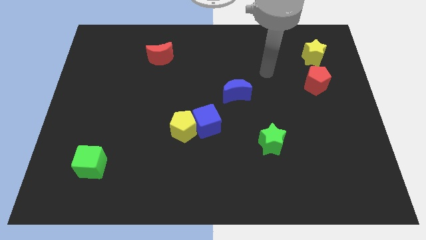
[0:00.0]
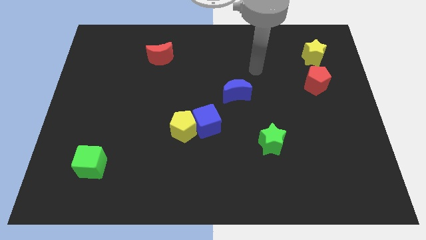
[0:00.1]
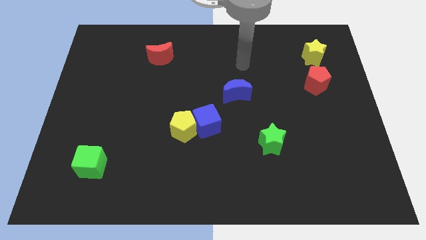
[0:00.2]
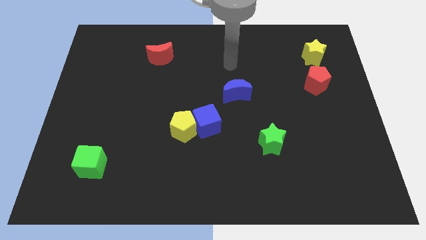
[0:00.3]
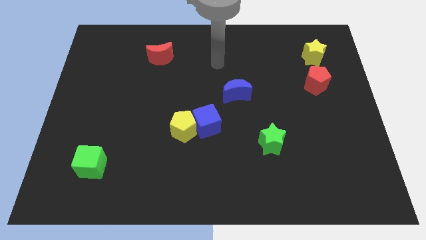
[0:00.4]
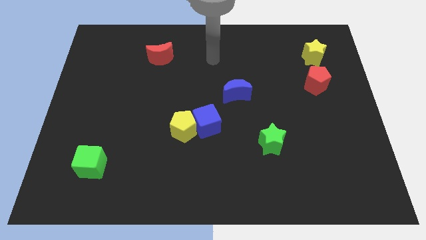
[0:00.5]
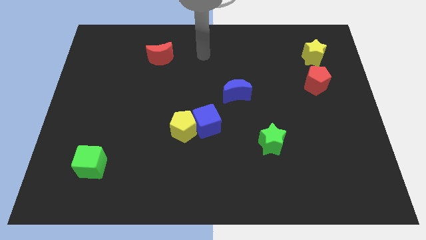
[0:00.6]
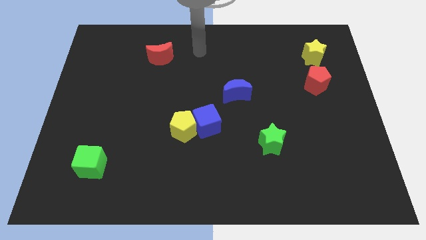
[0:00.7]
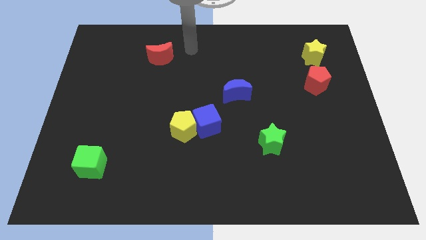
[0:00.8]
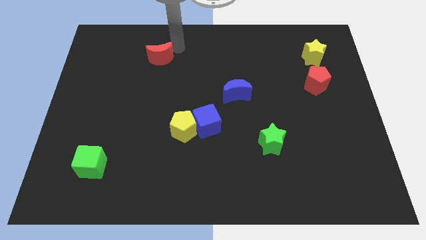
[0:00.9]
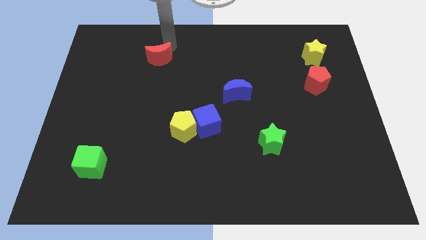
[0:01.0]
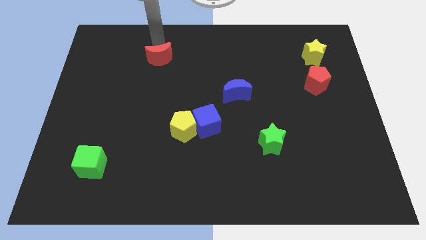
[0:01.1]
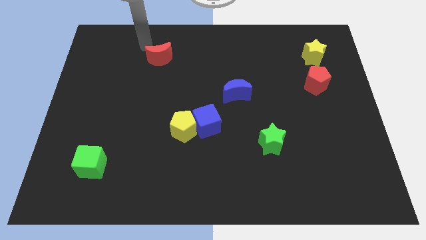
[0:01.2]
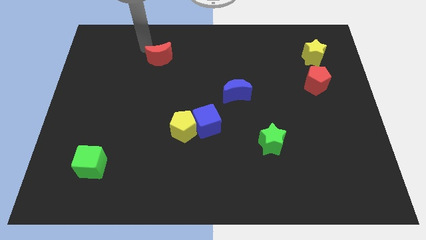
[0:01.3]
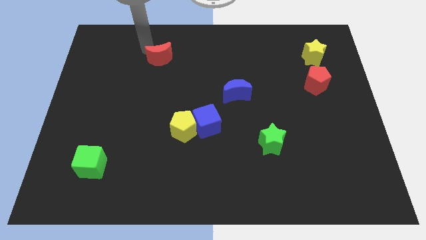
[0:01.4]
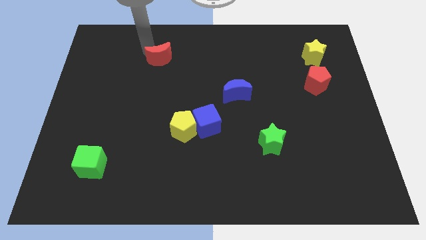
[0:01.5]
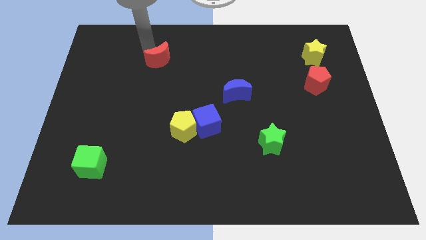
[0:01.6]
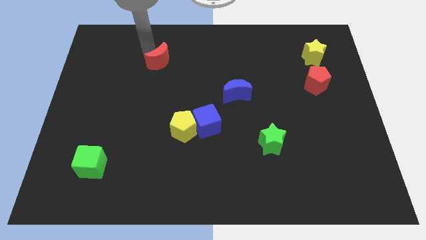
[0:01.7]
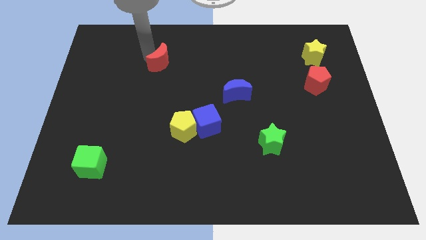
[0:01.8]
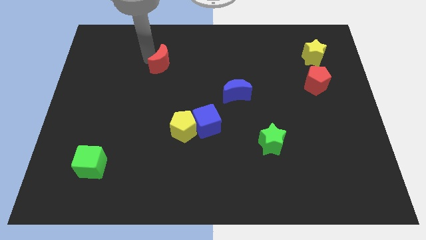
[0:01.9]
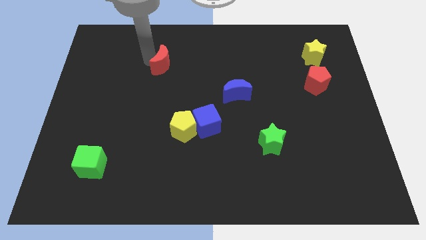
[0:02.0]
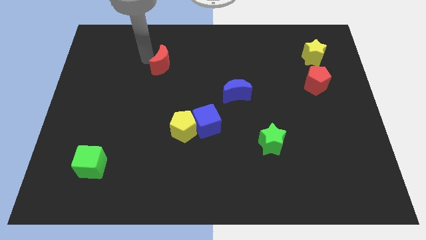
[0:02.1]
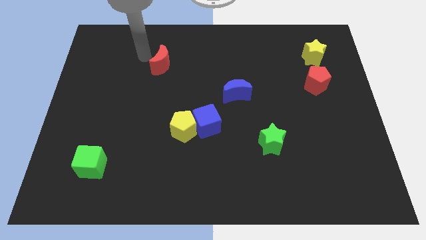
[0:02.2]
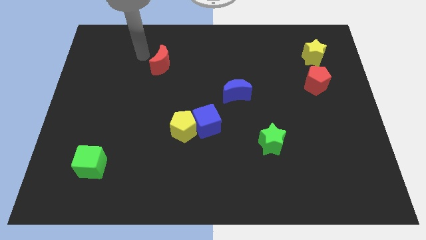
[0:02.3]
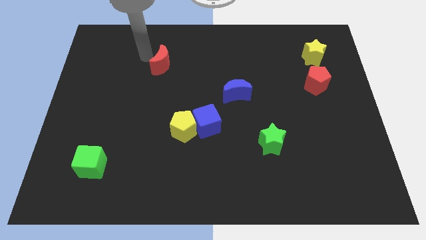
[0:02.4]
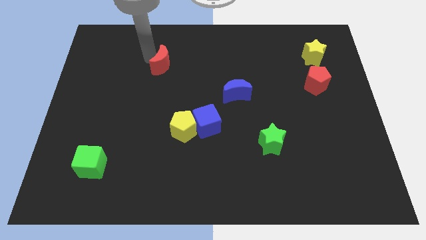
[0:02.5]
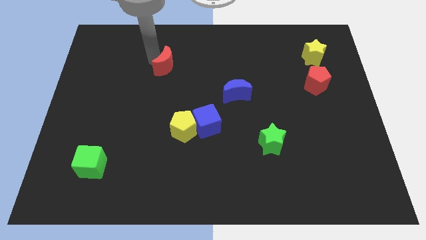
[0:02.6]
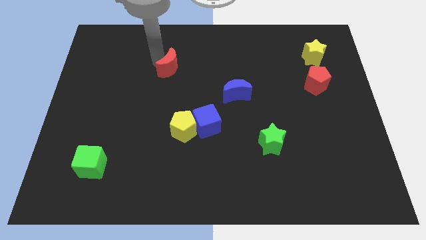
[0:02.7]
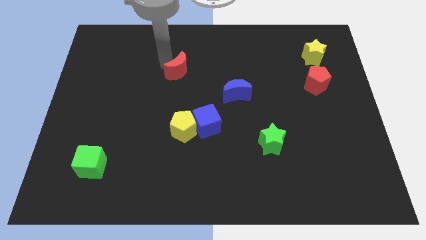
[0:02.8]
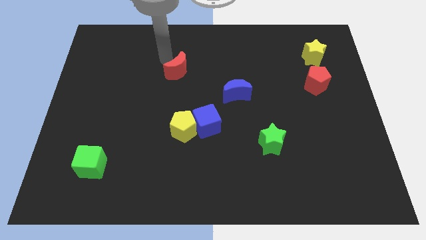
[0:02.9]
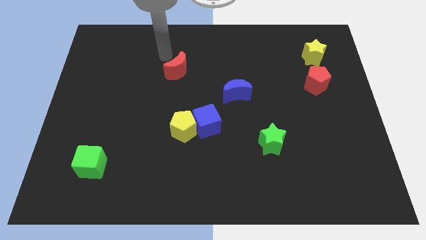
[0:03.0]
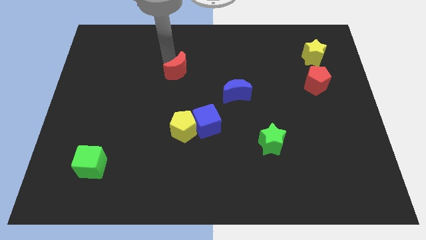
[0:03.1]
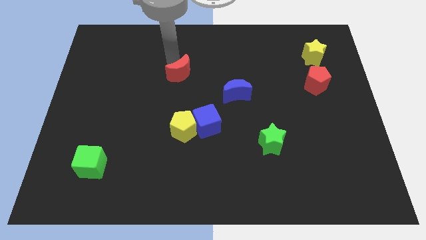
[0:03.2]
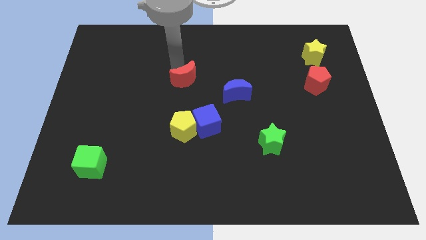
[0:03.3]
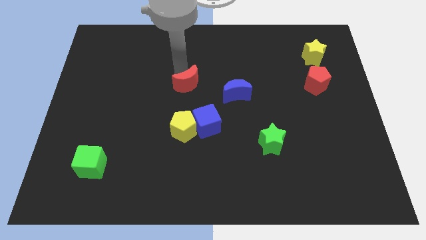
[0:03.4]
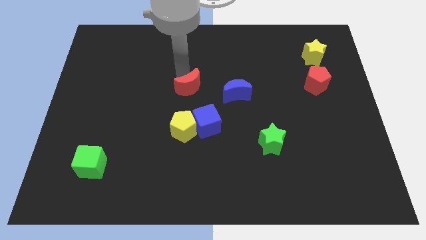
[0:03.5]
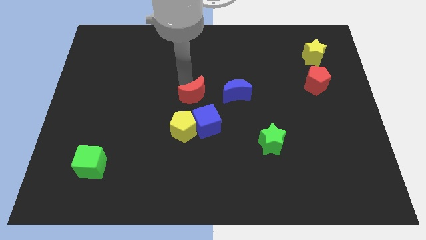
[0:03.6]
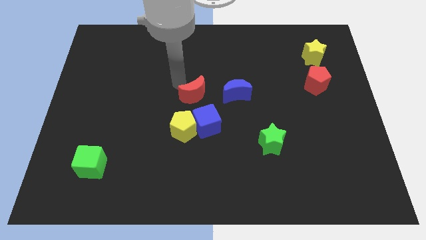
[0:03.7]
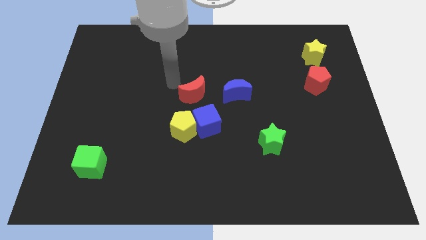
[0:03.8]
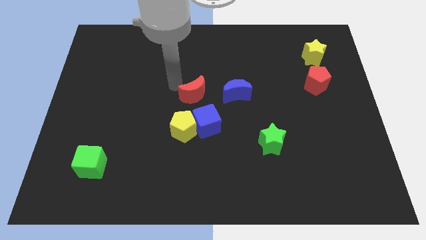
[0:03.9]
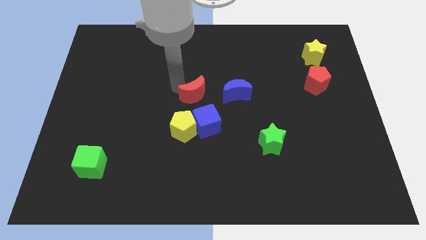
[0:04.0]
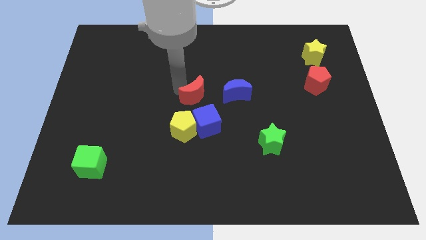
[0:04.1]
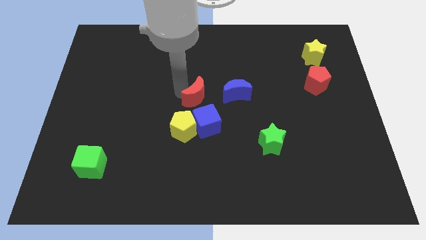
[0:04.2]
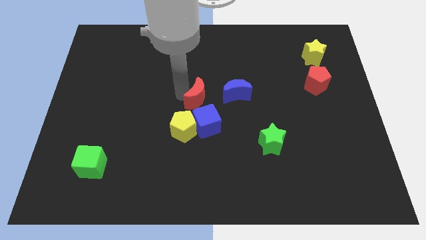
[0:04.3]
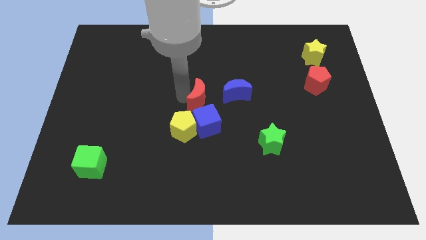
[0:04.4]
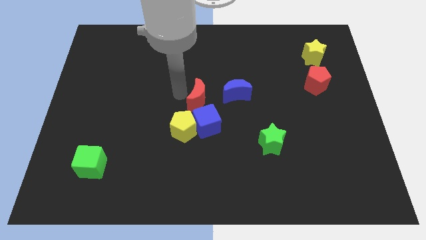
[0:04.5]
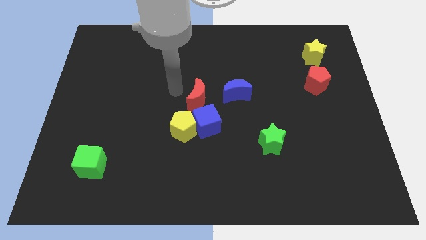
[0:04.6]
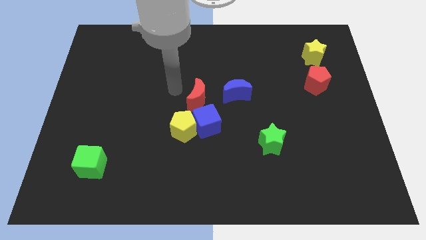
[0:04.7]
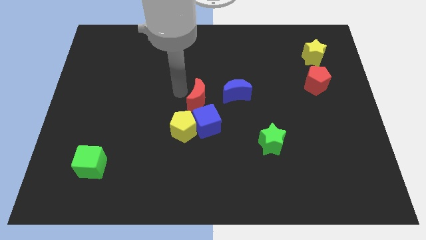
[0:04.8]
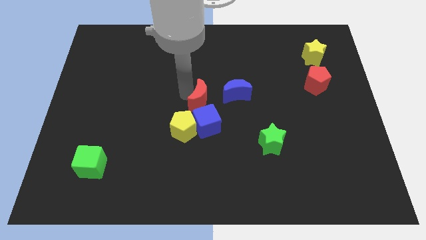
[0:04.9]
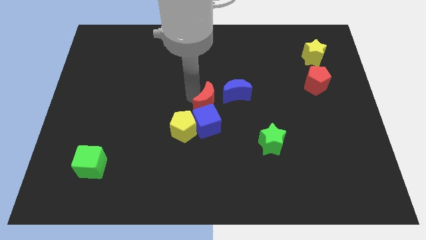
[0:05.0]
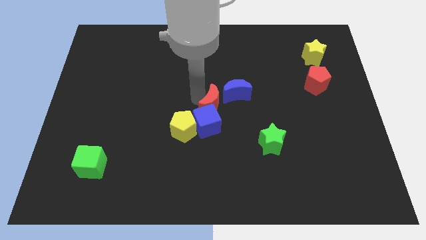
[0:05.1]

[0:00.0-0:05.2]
slide the red moon downwards and to the right diagonally

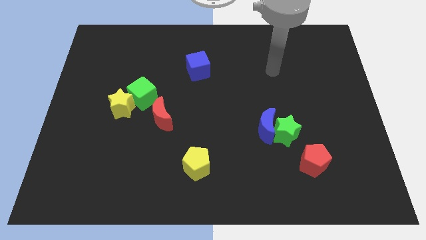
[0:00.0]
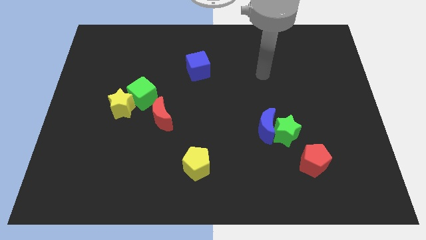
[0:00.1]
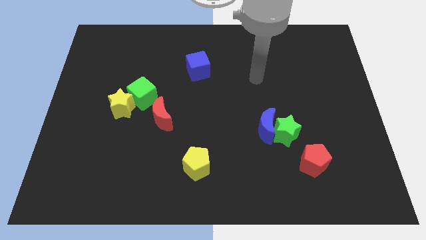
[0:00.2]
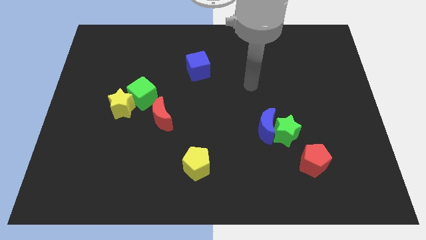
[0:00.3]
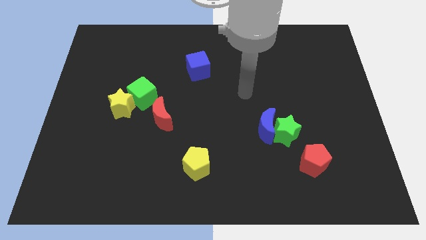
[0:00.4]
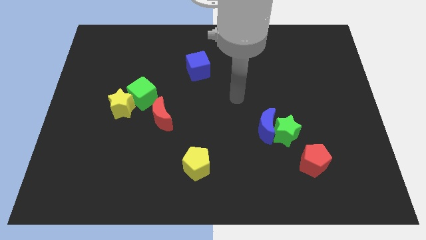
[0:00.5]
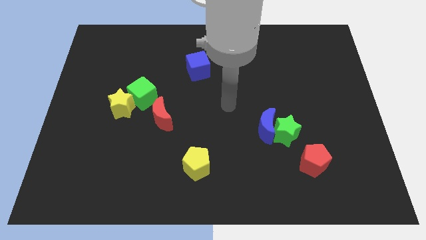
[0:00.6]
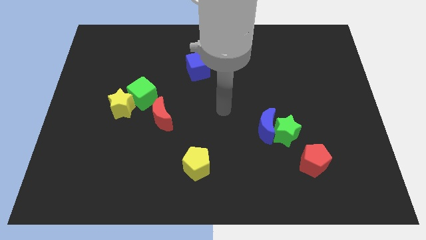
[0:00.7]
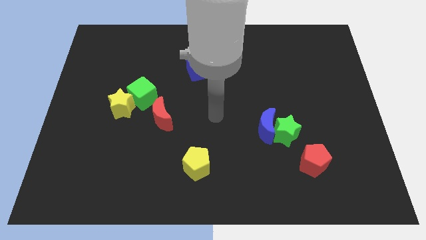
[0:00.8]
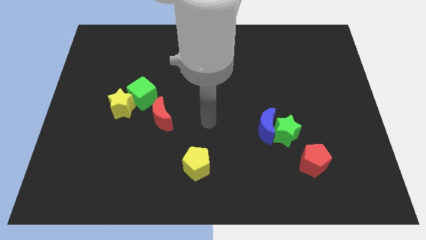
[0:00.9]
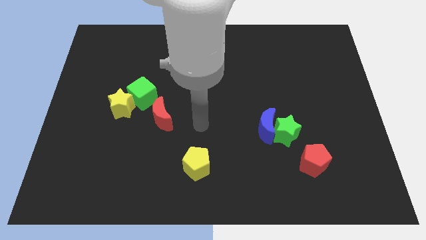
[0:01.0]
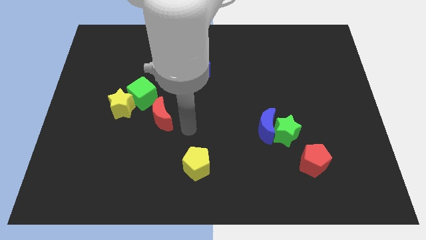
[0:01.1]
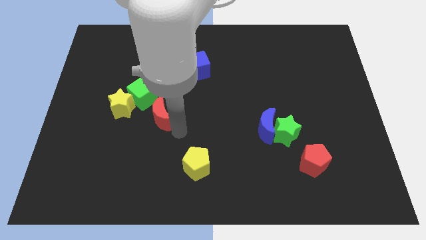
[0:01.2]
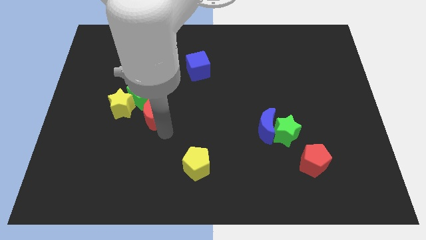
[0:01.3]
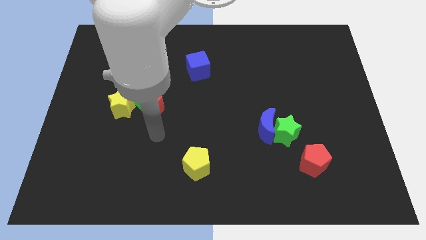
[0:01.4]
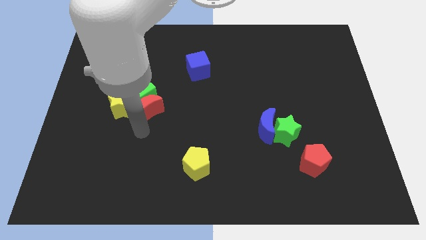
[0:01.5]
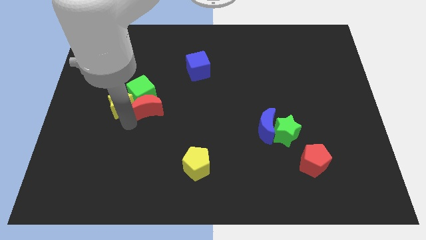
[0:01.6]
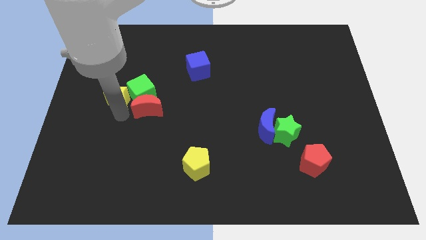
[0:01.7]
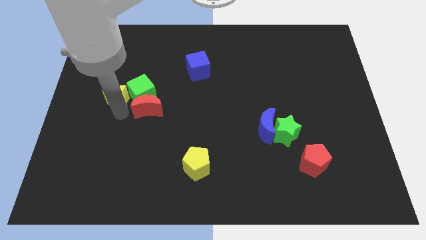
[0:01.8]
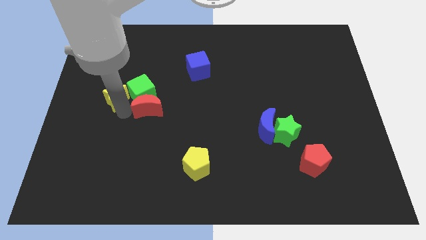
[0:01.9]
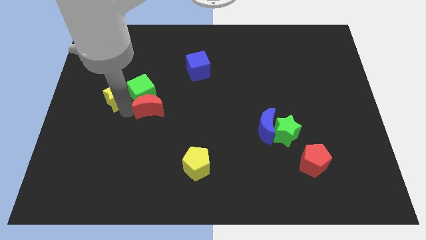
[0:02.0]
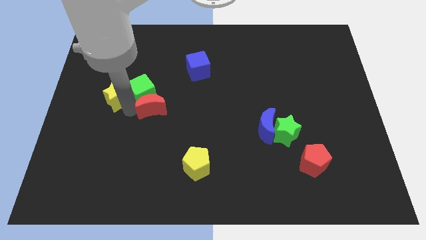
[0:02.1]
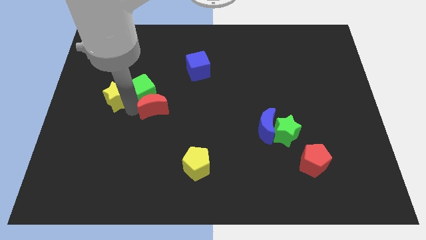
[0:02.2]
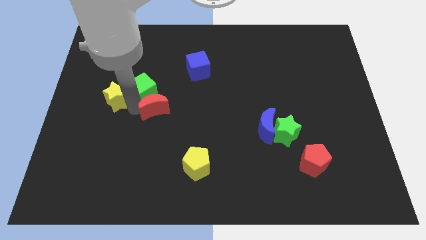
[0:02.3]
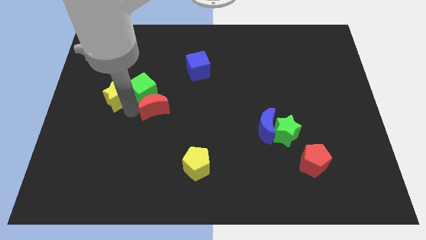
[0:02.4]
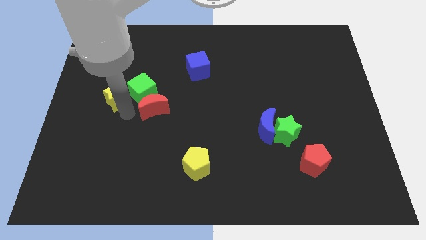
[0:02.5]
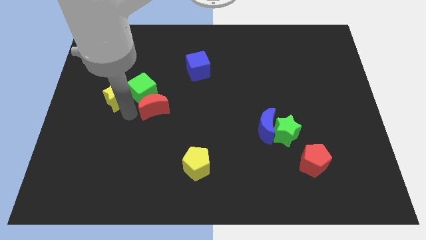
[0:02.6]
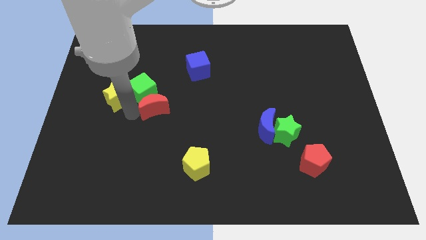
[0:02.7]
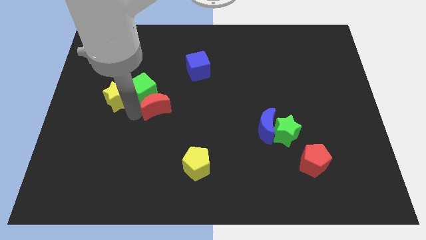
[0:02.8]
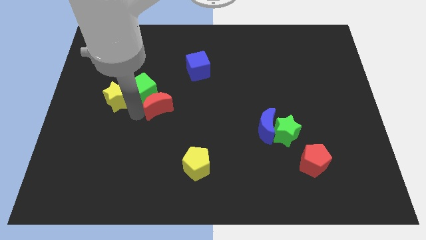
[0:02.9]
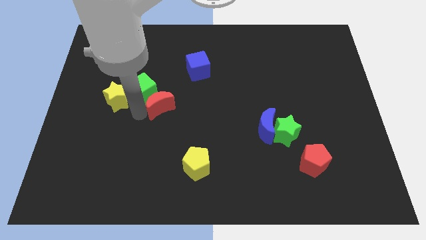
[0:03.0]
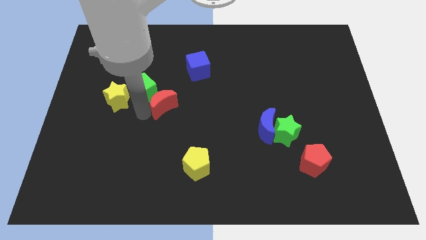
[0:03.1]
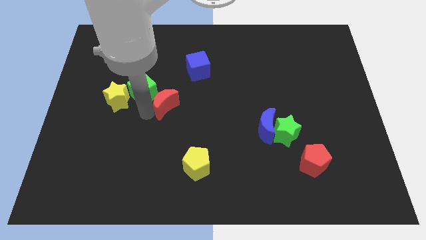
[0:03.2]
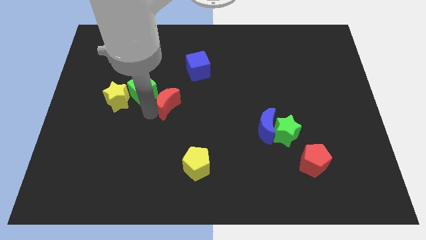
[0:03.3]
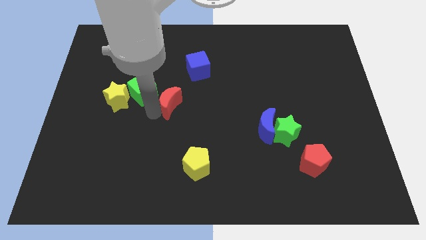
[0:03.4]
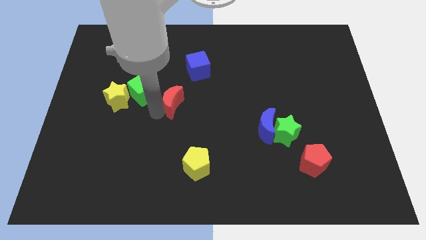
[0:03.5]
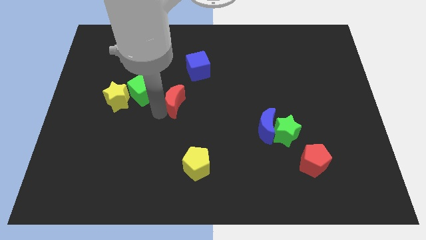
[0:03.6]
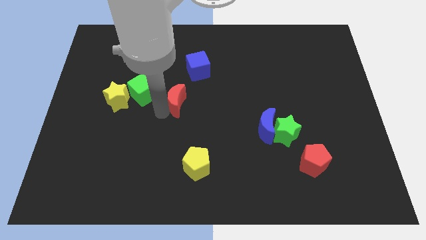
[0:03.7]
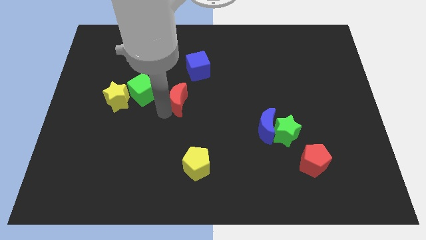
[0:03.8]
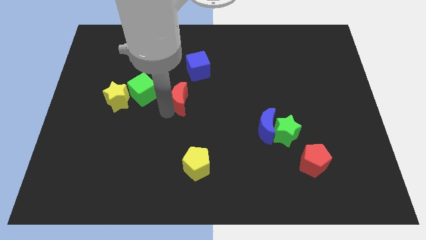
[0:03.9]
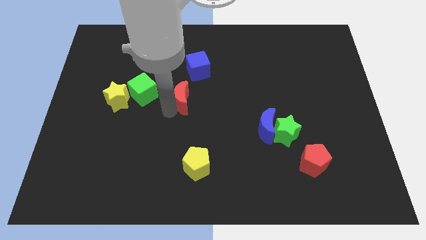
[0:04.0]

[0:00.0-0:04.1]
slide the red moon upwards and right diagonally a little
